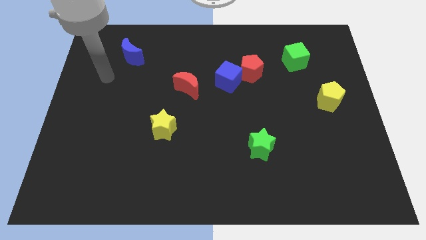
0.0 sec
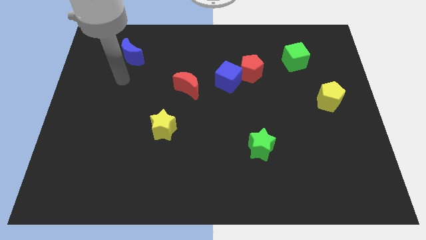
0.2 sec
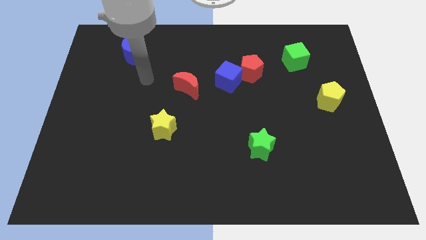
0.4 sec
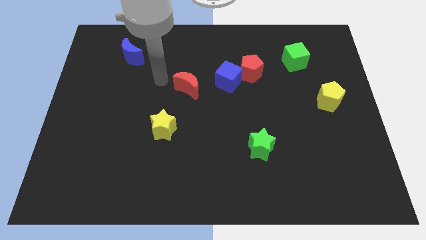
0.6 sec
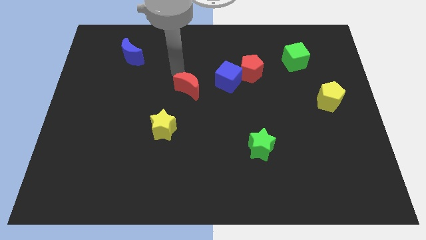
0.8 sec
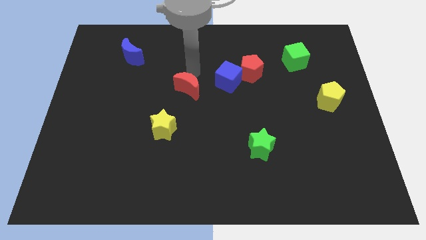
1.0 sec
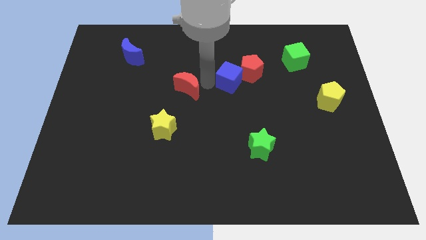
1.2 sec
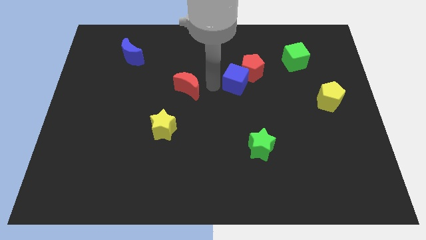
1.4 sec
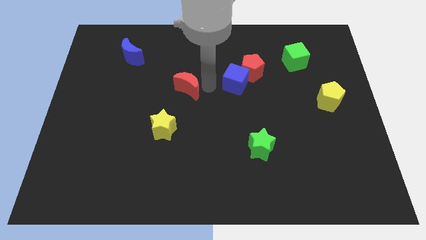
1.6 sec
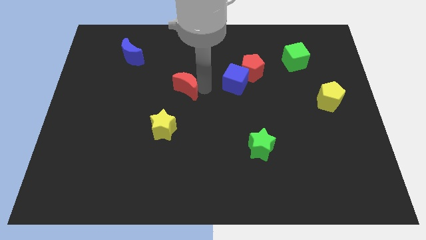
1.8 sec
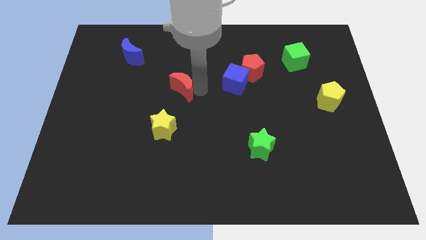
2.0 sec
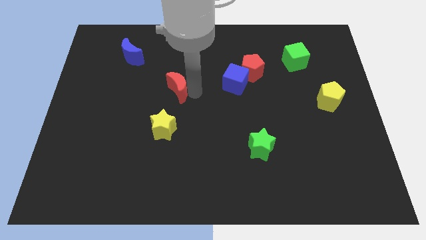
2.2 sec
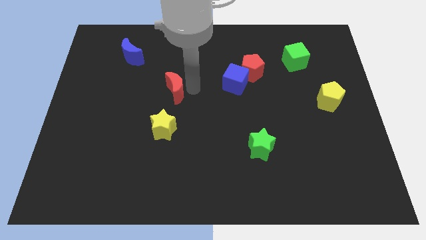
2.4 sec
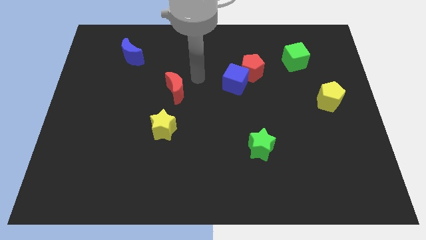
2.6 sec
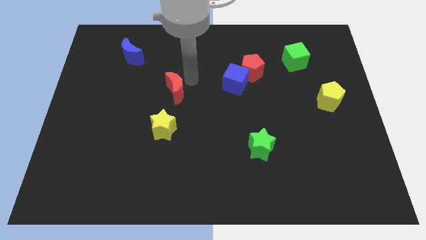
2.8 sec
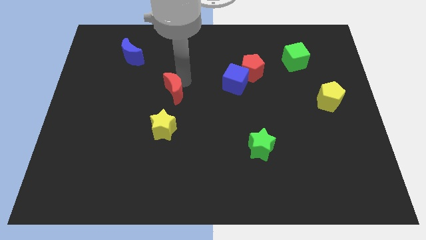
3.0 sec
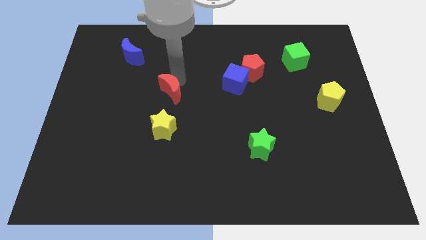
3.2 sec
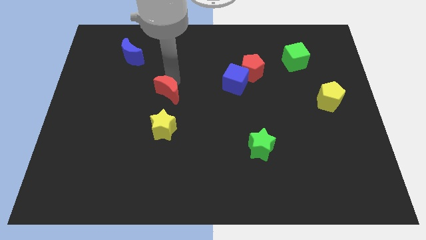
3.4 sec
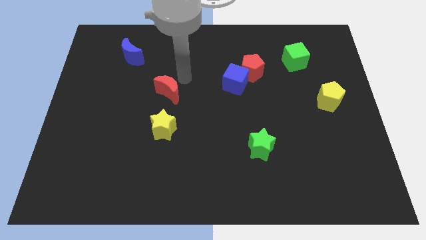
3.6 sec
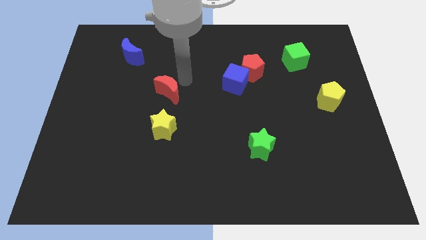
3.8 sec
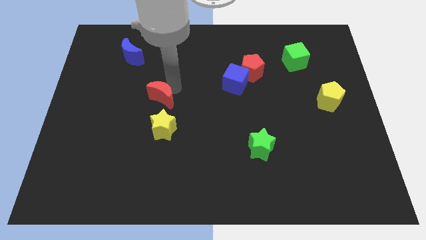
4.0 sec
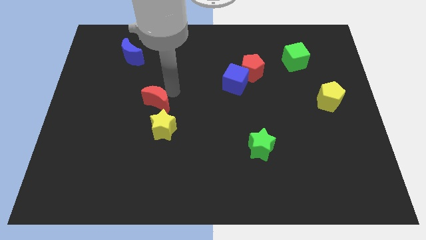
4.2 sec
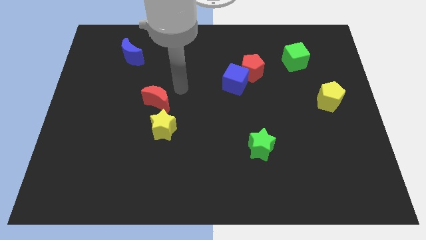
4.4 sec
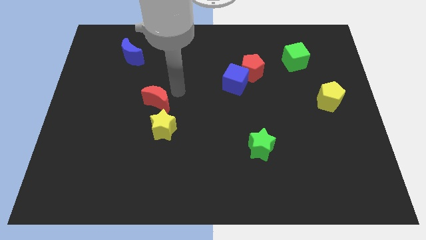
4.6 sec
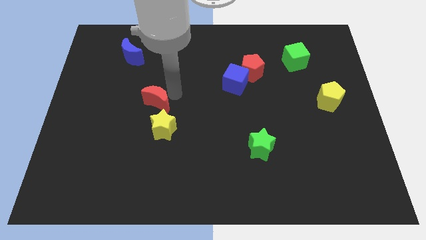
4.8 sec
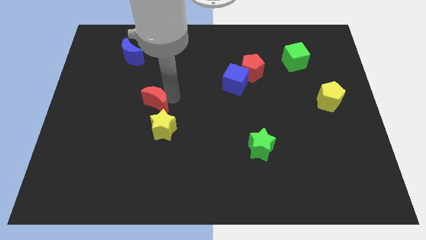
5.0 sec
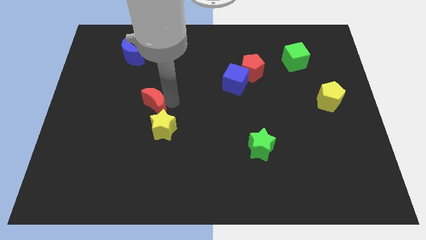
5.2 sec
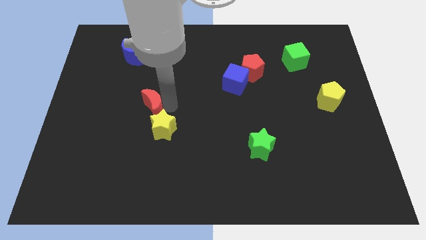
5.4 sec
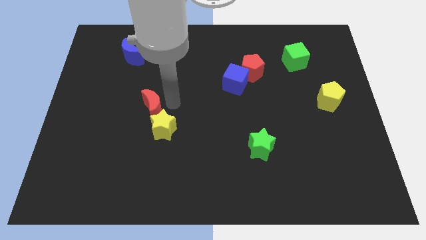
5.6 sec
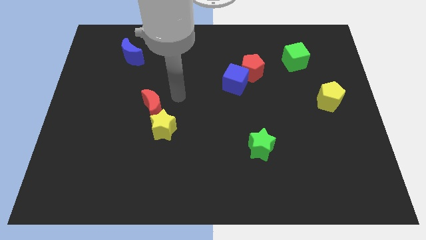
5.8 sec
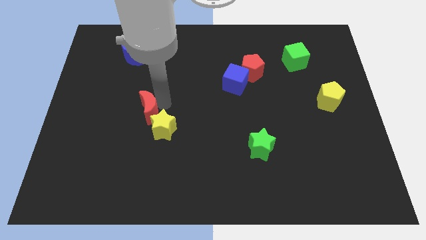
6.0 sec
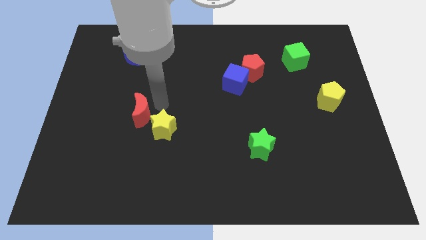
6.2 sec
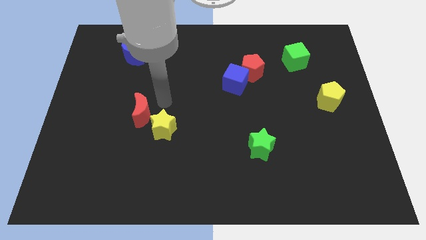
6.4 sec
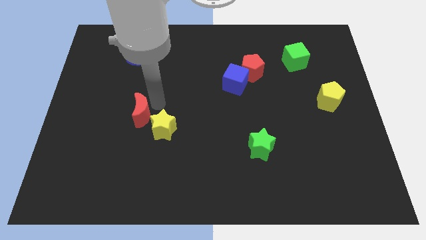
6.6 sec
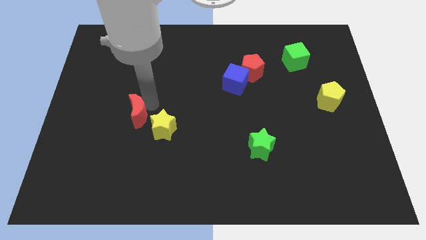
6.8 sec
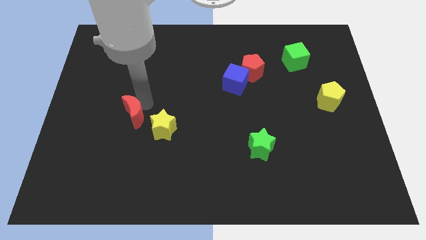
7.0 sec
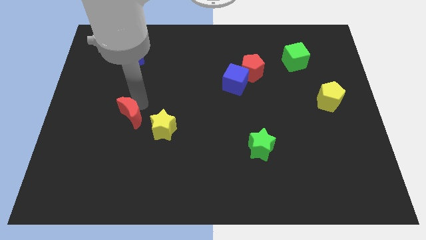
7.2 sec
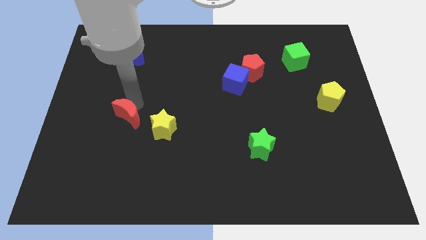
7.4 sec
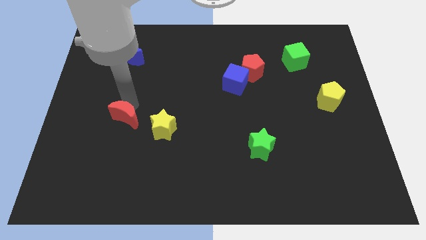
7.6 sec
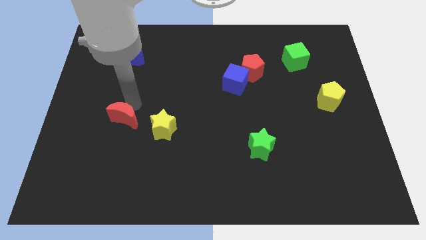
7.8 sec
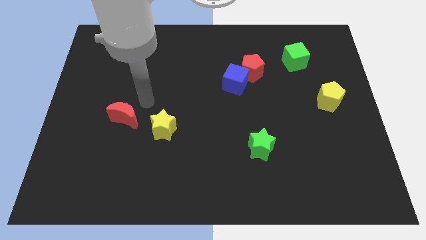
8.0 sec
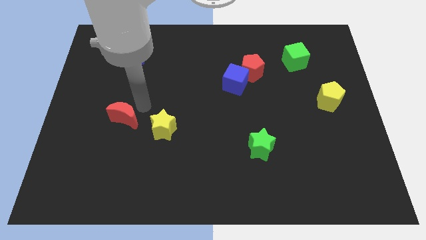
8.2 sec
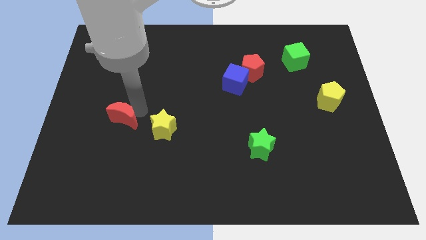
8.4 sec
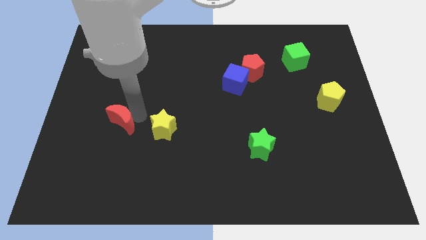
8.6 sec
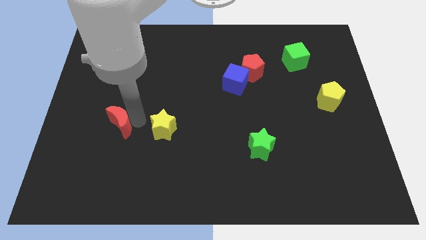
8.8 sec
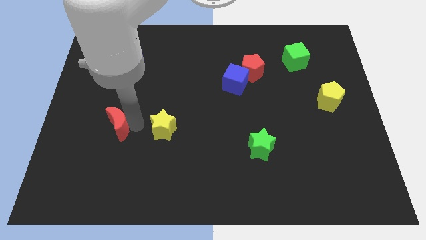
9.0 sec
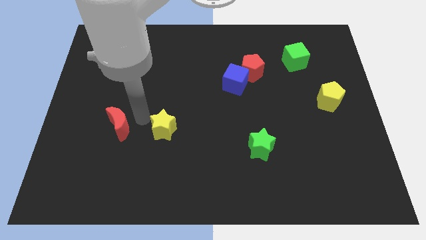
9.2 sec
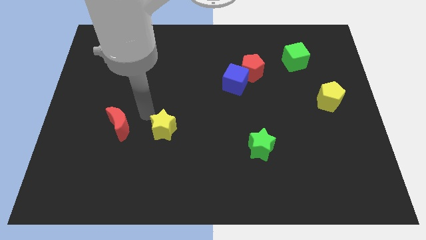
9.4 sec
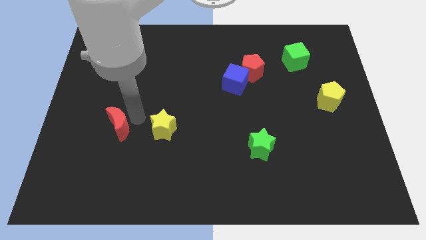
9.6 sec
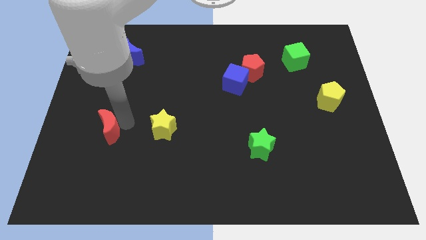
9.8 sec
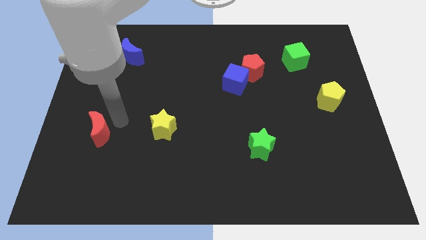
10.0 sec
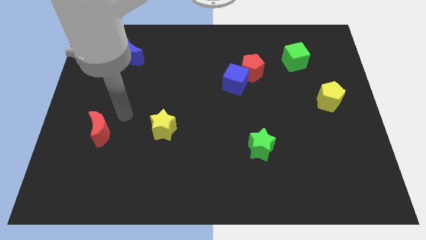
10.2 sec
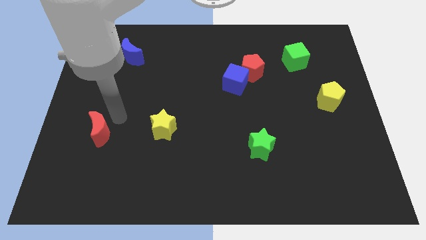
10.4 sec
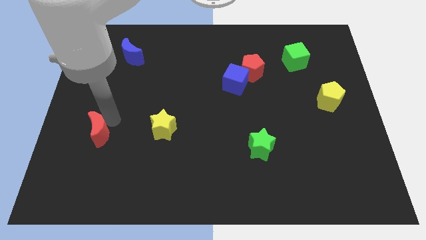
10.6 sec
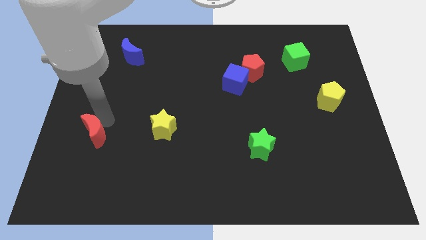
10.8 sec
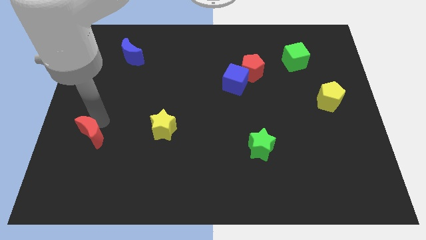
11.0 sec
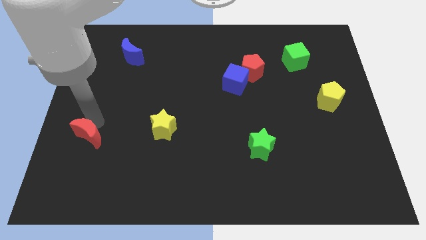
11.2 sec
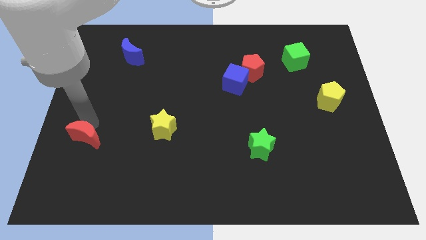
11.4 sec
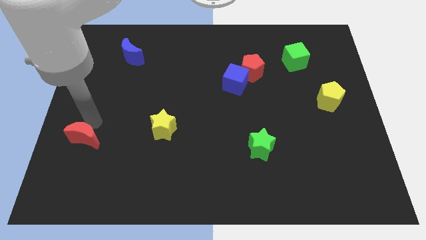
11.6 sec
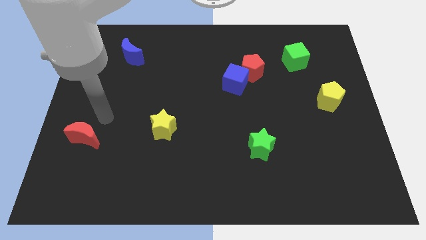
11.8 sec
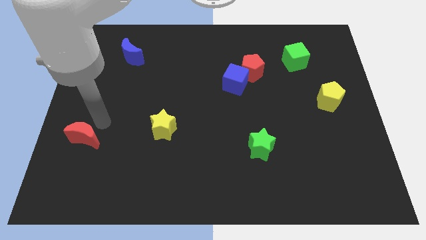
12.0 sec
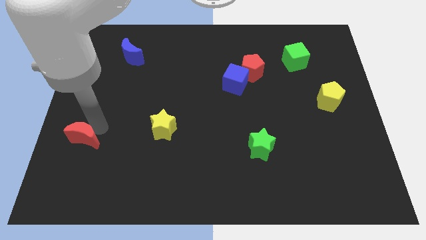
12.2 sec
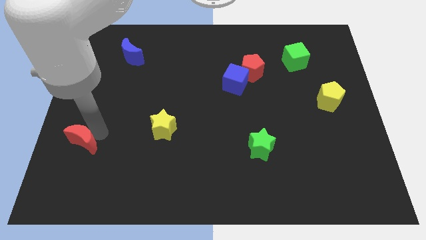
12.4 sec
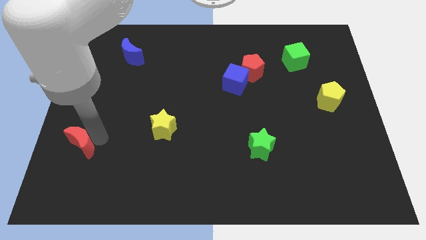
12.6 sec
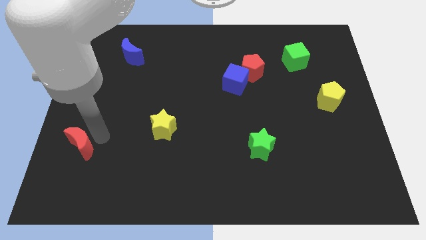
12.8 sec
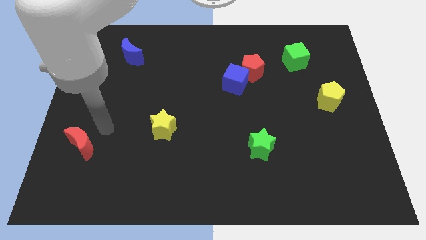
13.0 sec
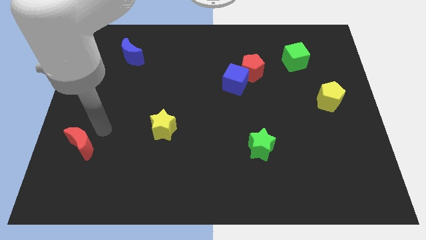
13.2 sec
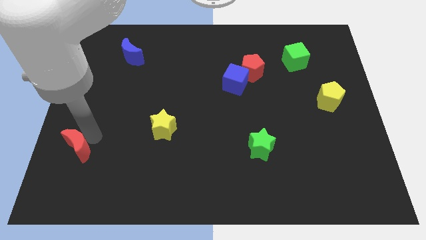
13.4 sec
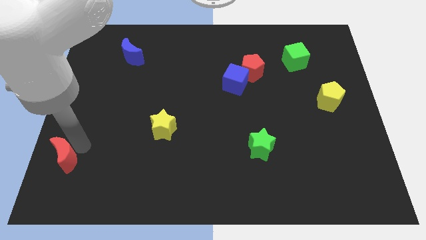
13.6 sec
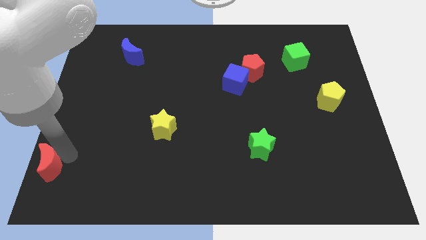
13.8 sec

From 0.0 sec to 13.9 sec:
put the red moon to the bottom left of the board
